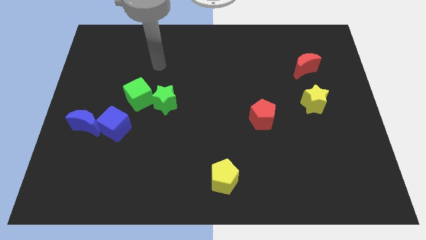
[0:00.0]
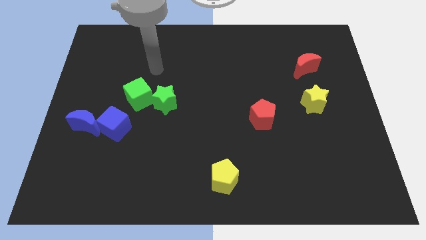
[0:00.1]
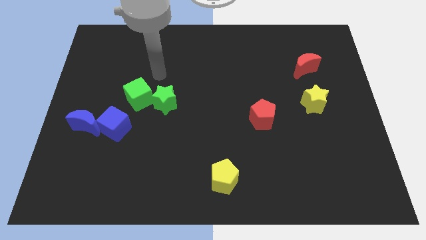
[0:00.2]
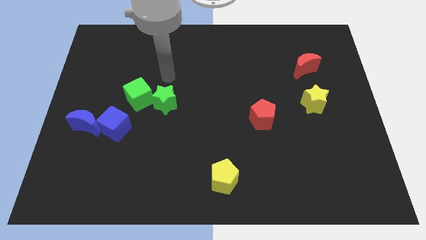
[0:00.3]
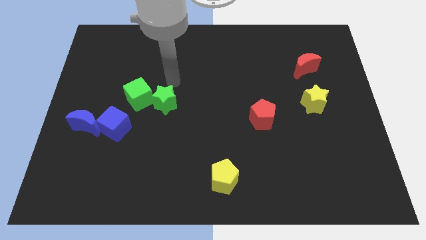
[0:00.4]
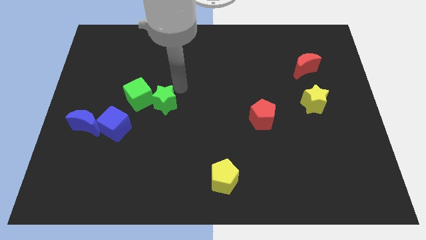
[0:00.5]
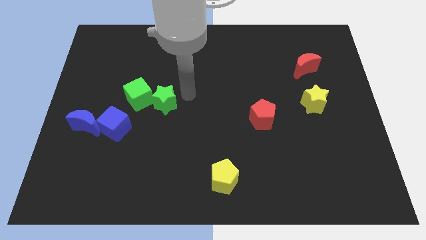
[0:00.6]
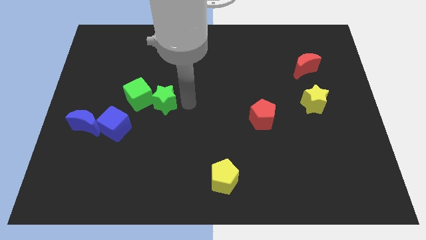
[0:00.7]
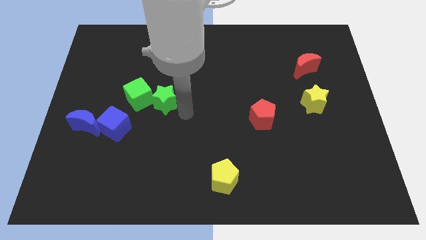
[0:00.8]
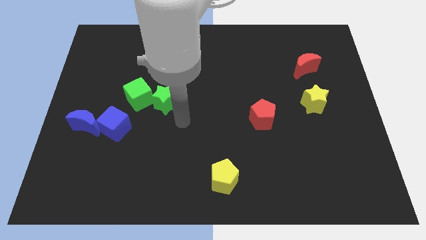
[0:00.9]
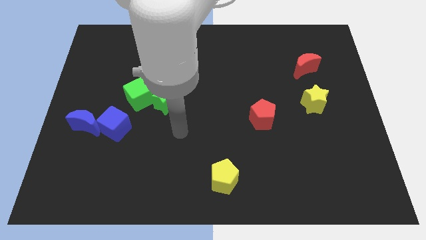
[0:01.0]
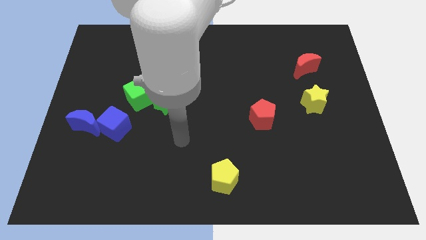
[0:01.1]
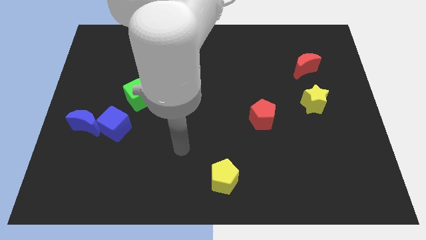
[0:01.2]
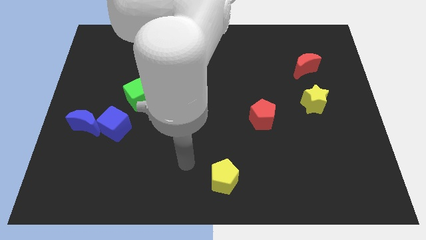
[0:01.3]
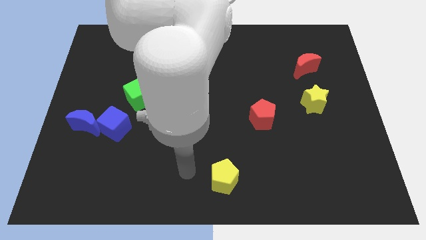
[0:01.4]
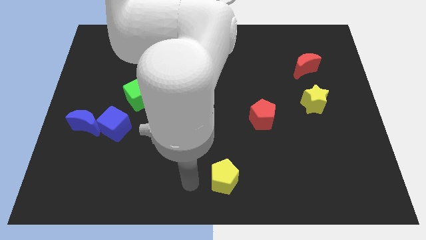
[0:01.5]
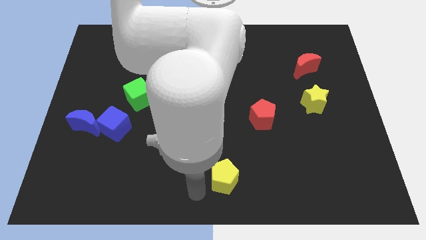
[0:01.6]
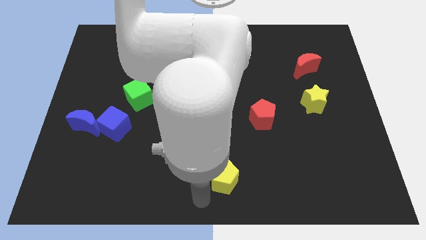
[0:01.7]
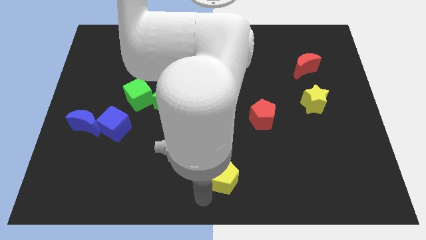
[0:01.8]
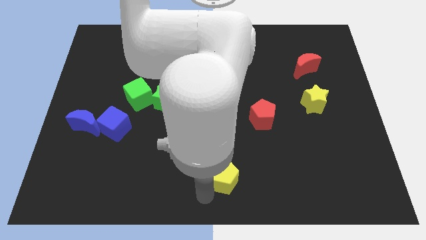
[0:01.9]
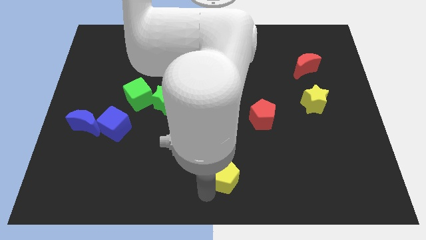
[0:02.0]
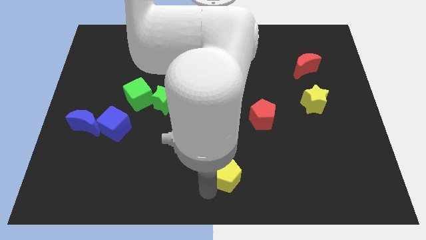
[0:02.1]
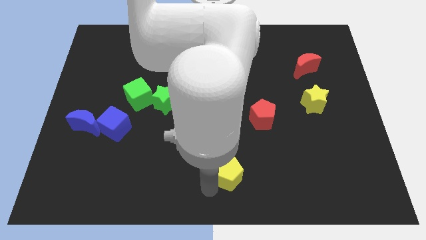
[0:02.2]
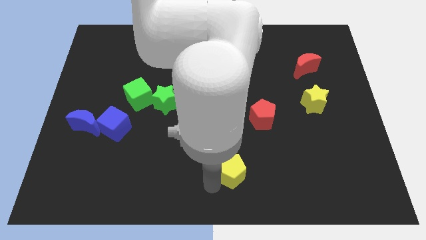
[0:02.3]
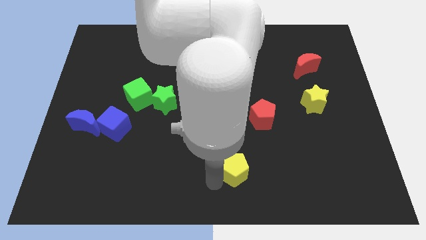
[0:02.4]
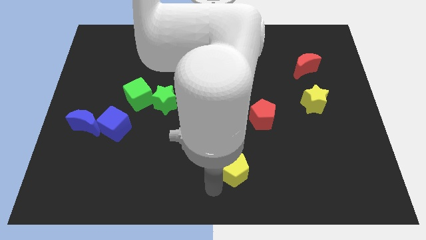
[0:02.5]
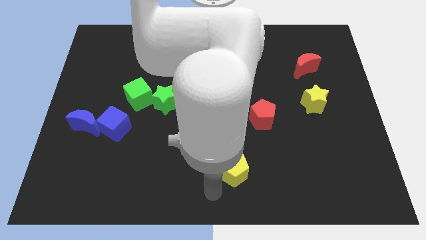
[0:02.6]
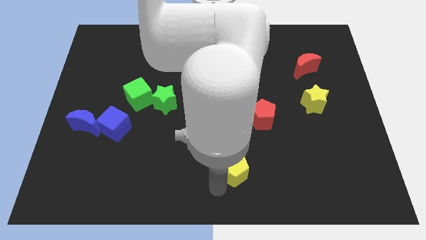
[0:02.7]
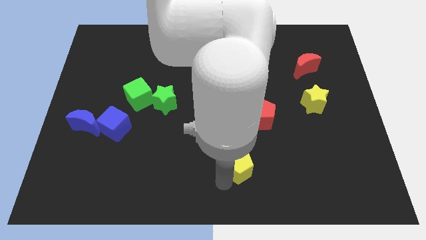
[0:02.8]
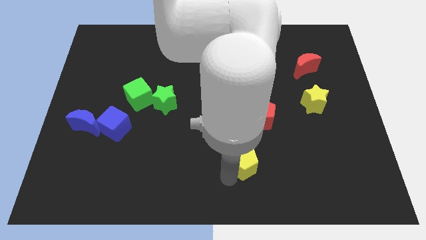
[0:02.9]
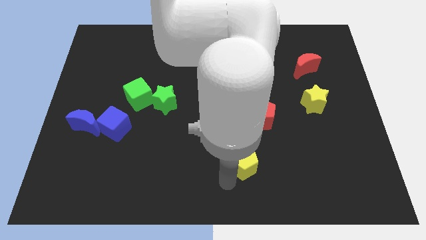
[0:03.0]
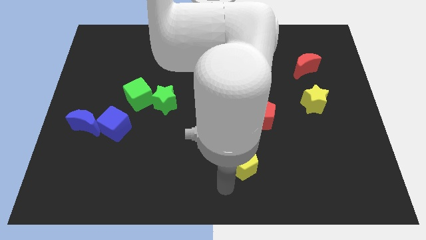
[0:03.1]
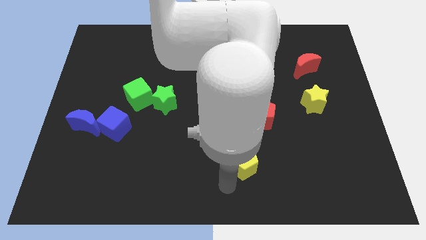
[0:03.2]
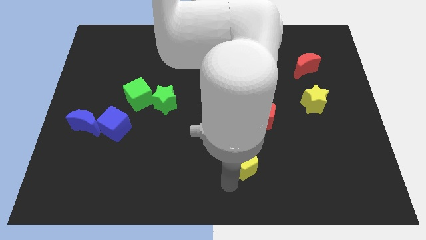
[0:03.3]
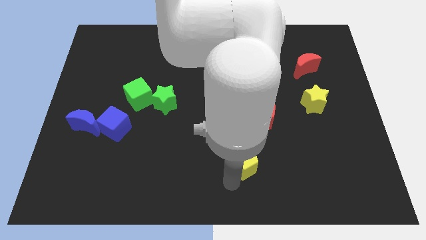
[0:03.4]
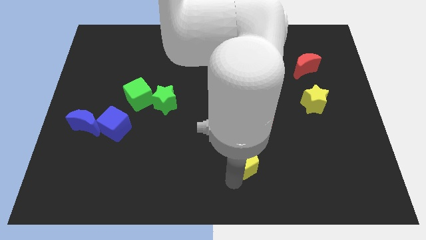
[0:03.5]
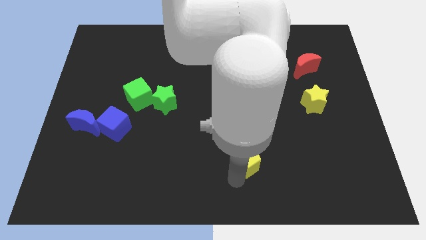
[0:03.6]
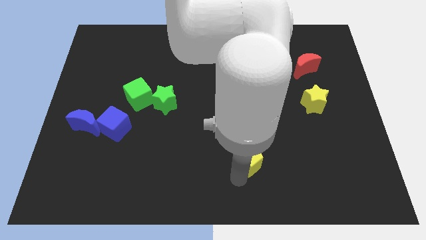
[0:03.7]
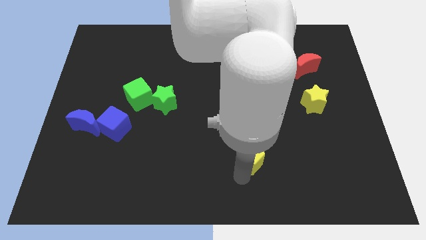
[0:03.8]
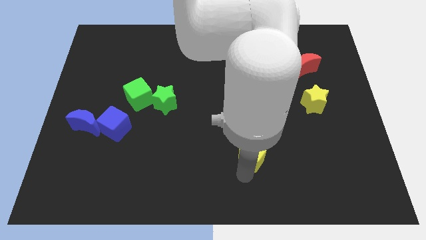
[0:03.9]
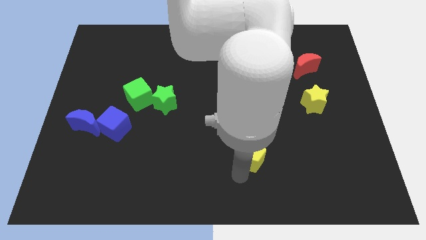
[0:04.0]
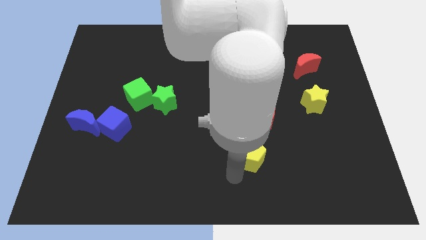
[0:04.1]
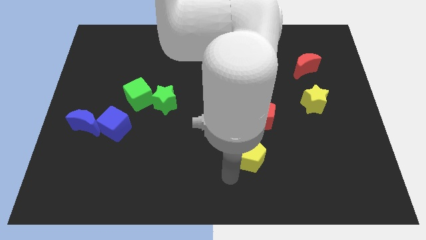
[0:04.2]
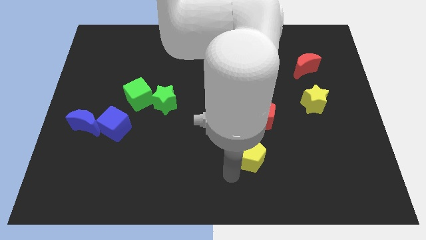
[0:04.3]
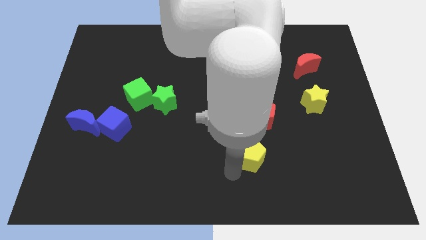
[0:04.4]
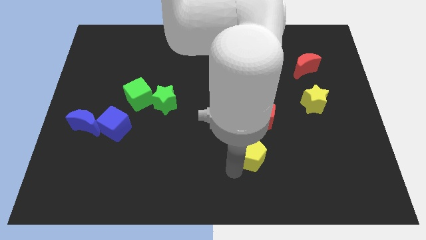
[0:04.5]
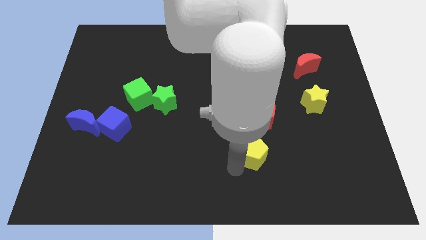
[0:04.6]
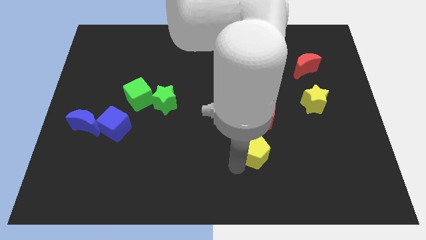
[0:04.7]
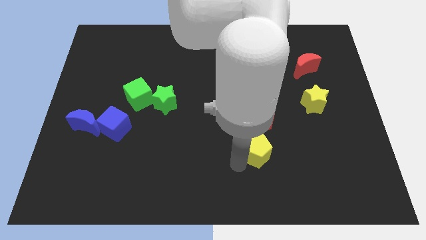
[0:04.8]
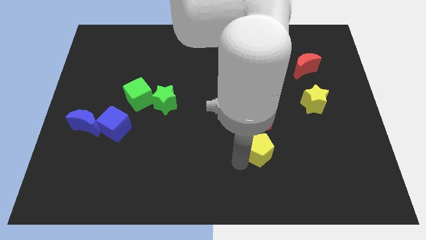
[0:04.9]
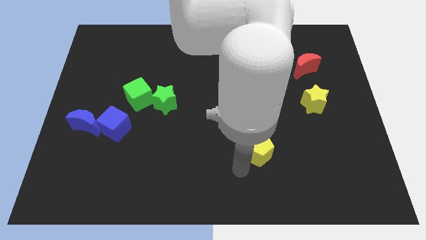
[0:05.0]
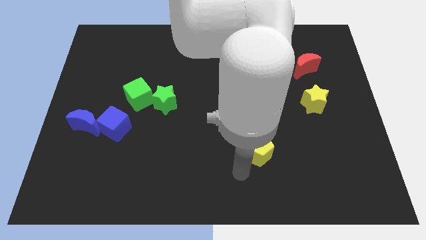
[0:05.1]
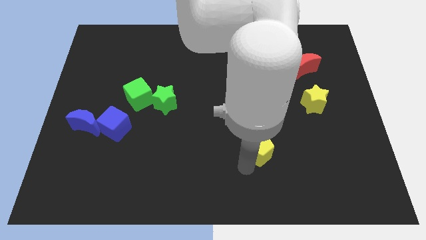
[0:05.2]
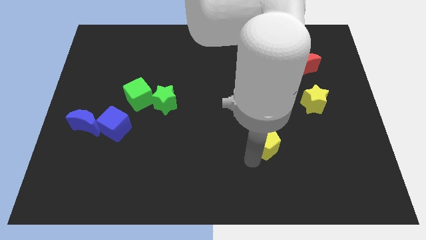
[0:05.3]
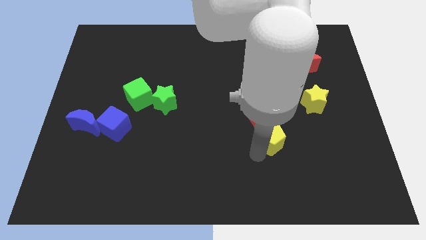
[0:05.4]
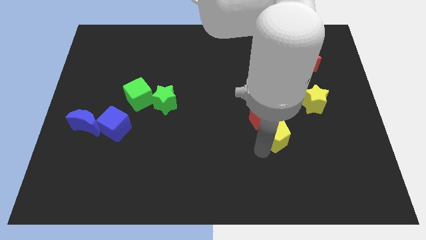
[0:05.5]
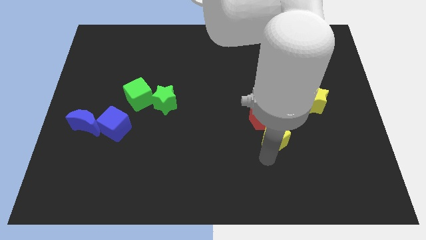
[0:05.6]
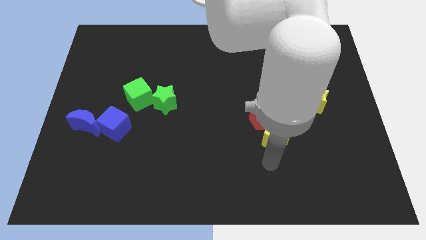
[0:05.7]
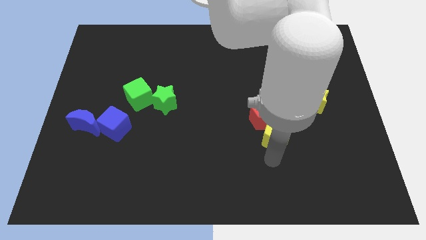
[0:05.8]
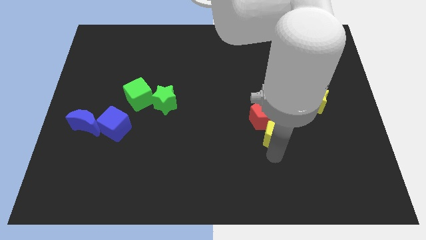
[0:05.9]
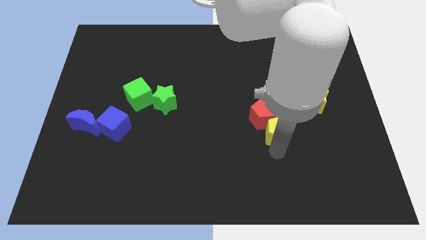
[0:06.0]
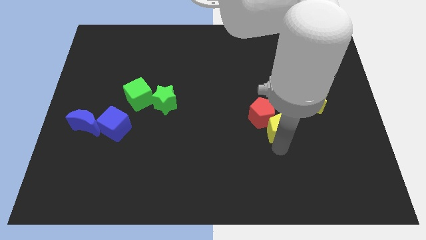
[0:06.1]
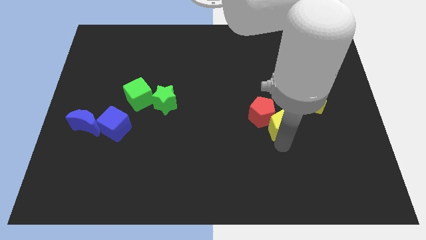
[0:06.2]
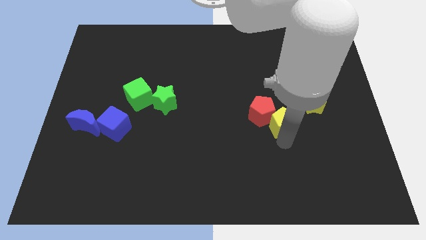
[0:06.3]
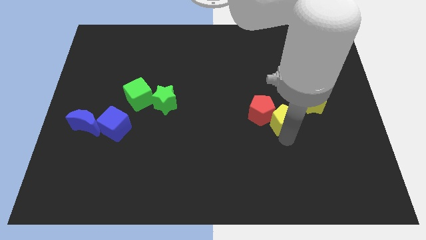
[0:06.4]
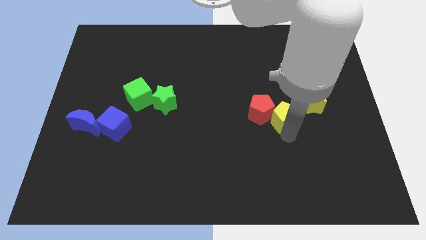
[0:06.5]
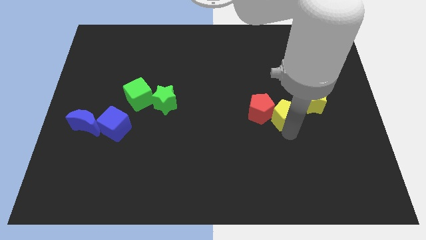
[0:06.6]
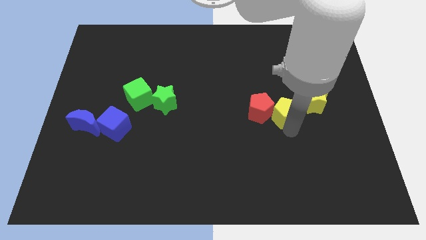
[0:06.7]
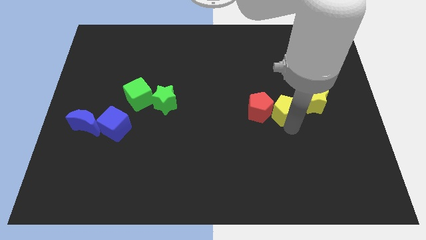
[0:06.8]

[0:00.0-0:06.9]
push the yellow pentagon to the top right of the red pentagon
